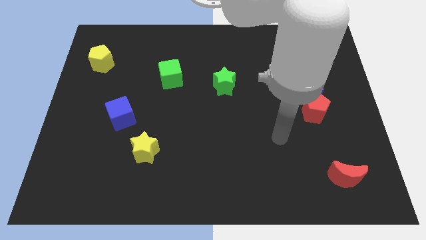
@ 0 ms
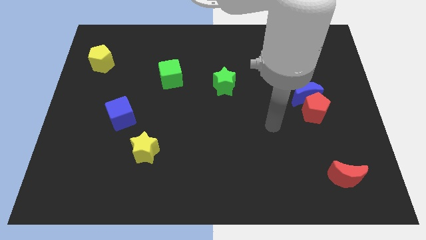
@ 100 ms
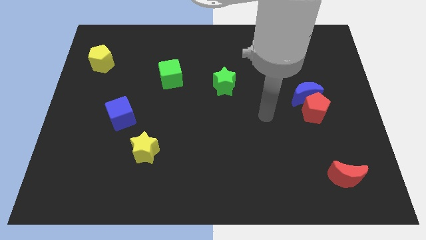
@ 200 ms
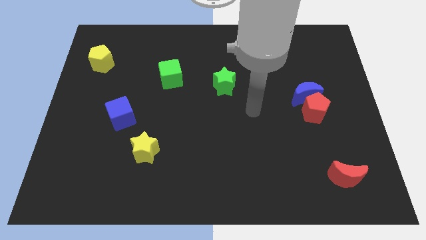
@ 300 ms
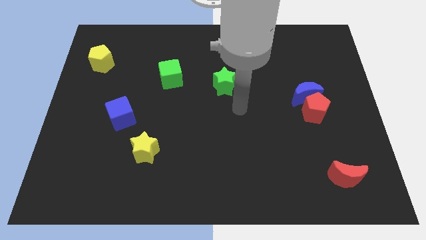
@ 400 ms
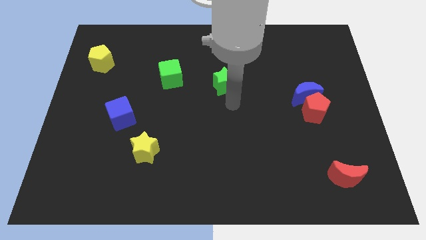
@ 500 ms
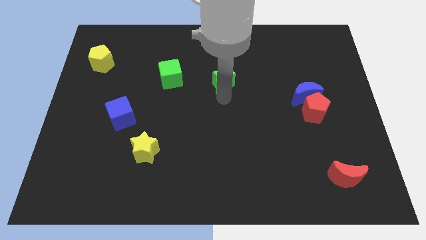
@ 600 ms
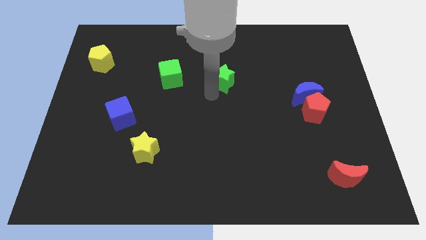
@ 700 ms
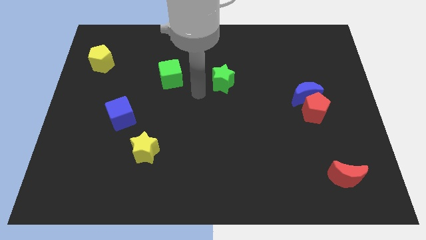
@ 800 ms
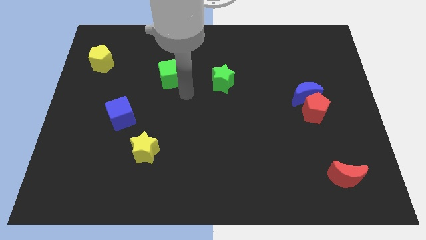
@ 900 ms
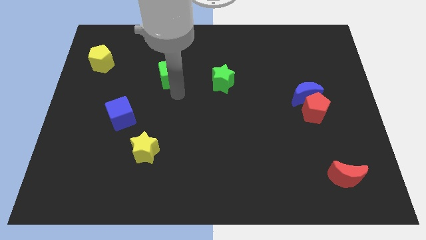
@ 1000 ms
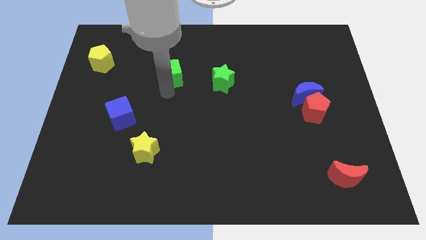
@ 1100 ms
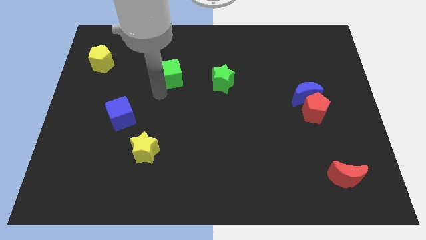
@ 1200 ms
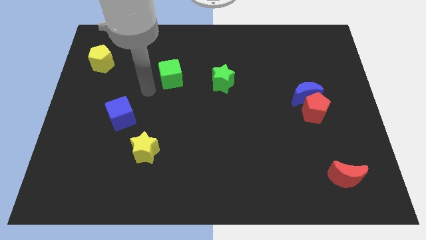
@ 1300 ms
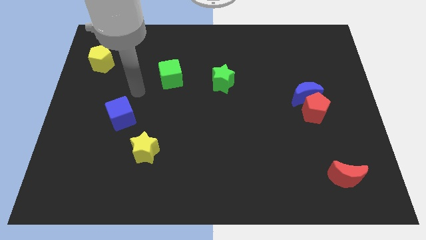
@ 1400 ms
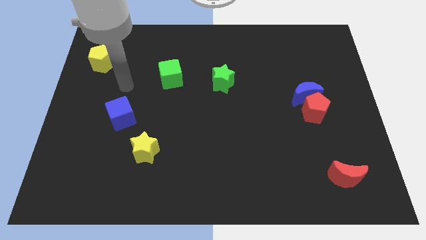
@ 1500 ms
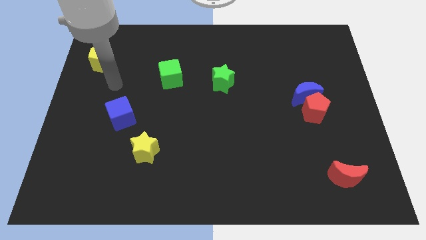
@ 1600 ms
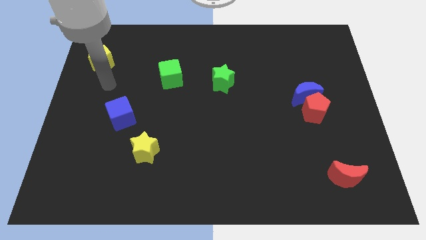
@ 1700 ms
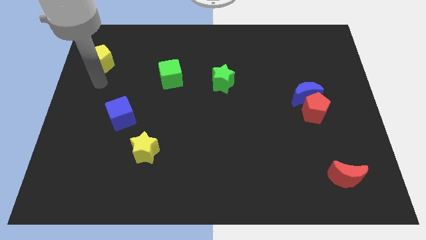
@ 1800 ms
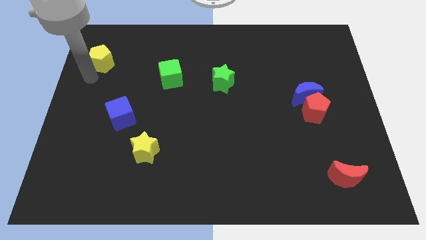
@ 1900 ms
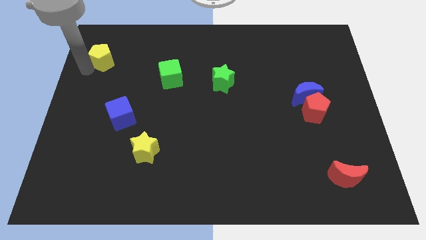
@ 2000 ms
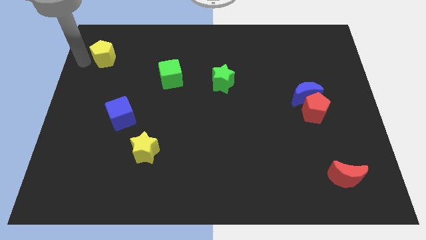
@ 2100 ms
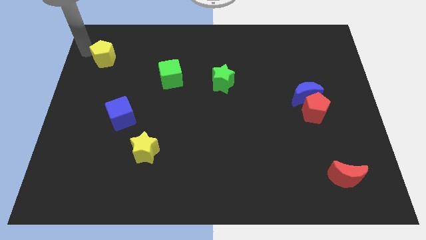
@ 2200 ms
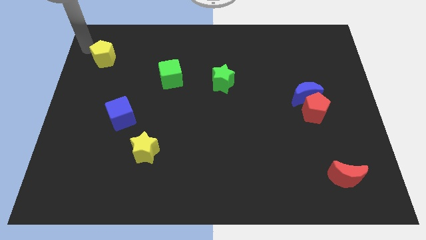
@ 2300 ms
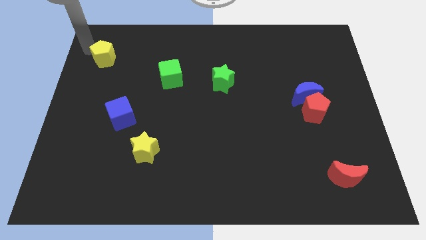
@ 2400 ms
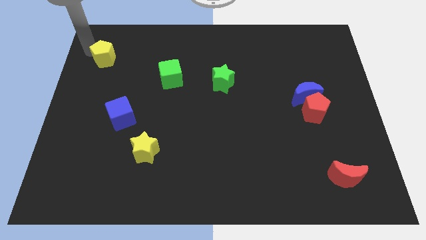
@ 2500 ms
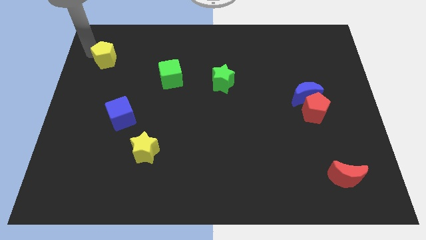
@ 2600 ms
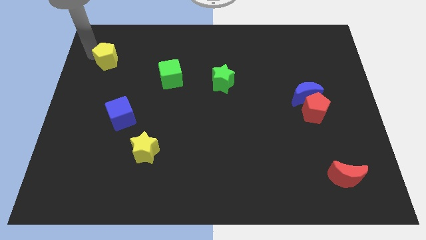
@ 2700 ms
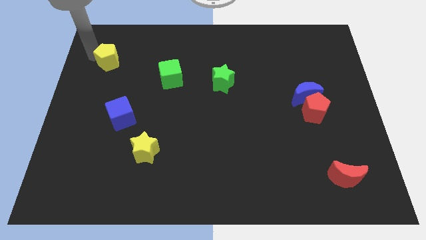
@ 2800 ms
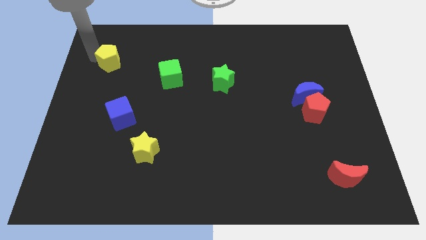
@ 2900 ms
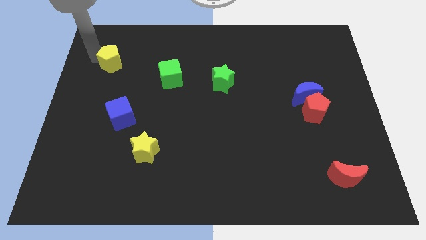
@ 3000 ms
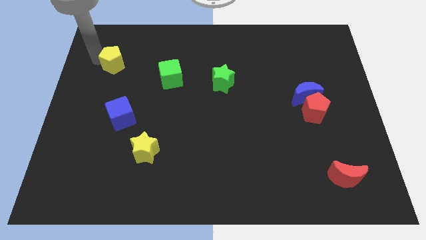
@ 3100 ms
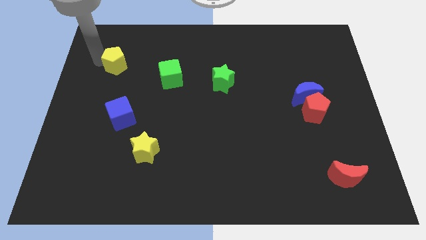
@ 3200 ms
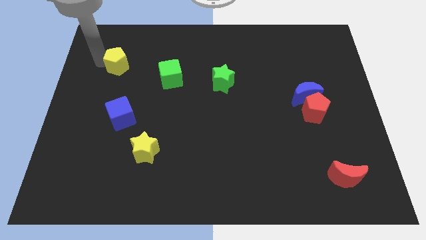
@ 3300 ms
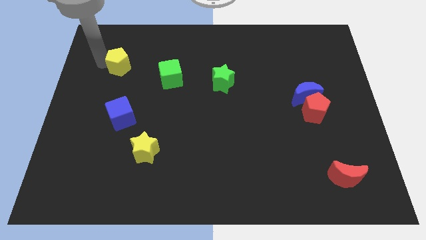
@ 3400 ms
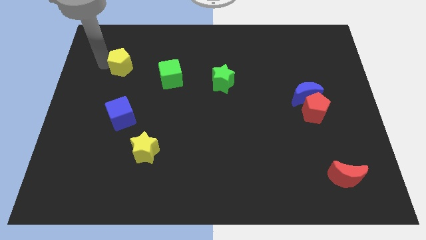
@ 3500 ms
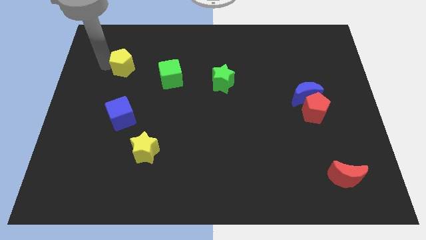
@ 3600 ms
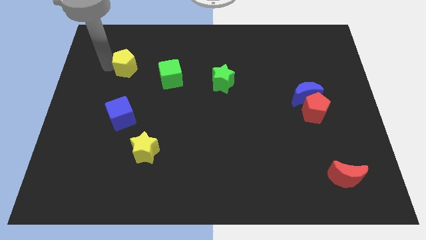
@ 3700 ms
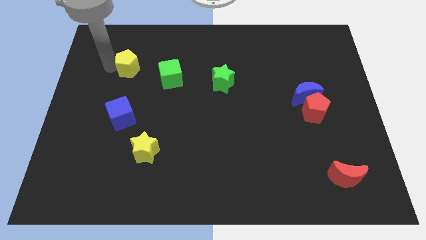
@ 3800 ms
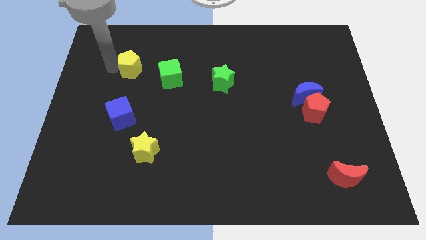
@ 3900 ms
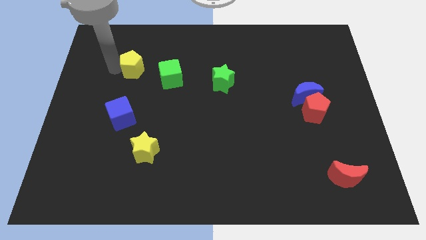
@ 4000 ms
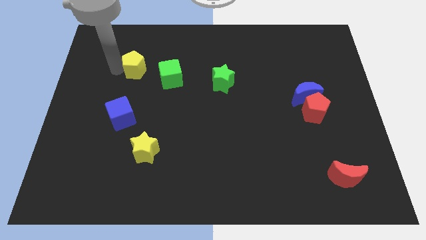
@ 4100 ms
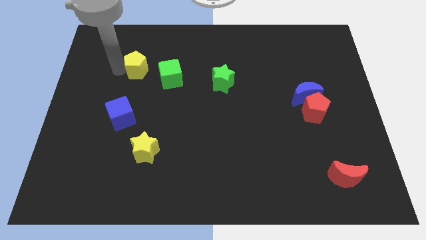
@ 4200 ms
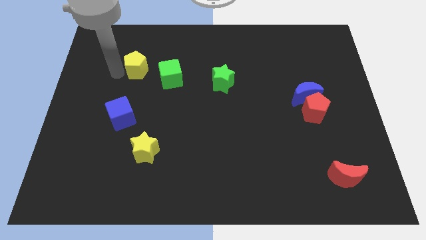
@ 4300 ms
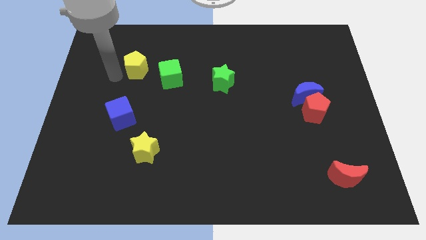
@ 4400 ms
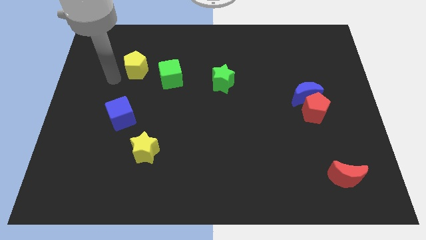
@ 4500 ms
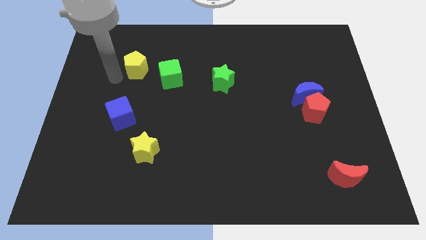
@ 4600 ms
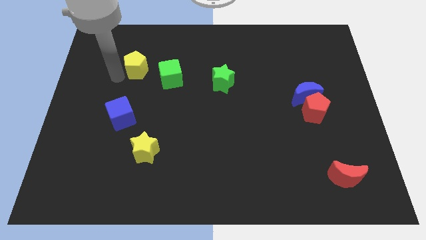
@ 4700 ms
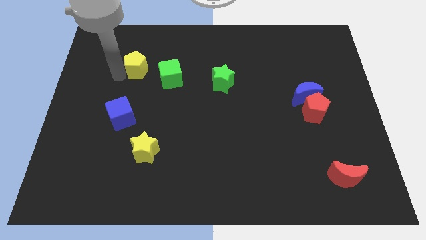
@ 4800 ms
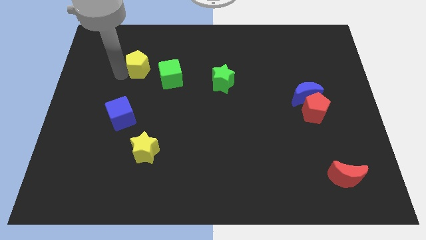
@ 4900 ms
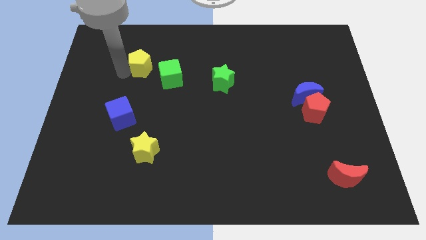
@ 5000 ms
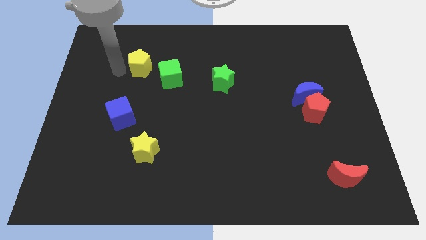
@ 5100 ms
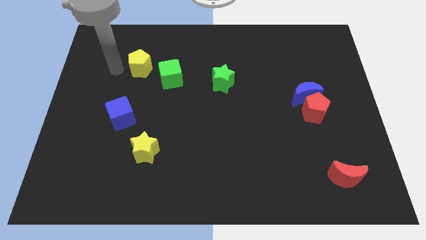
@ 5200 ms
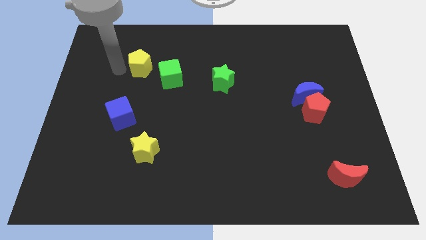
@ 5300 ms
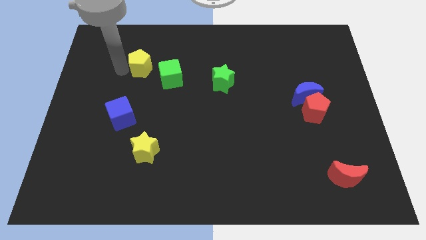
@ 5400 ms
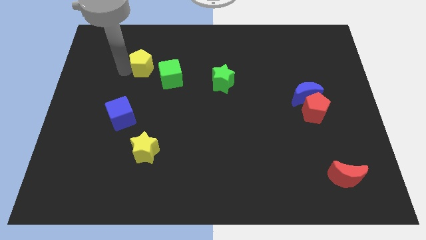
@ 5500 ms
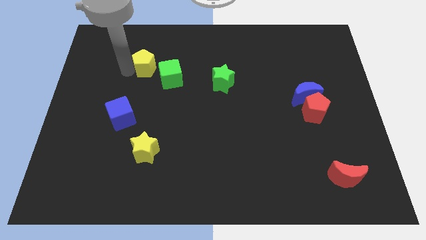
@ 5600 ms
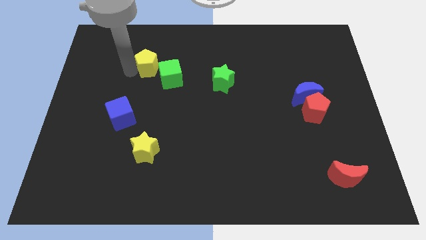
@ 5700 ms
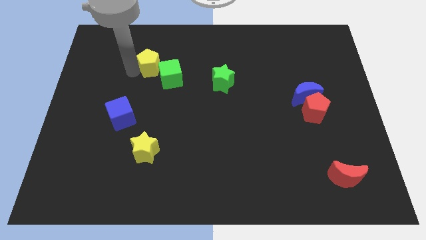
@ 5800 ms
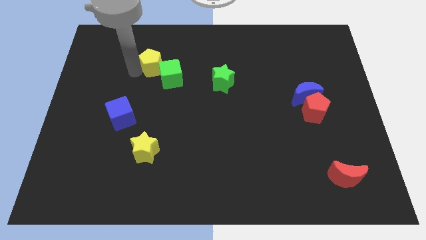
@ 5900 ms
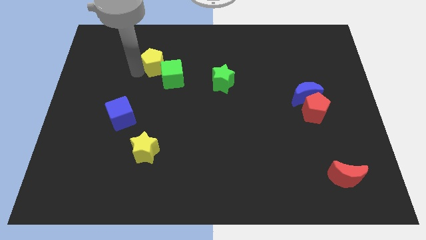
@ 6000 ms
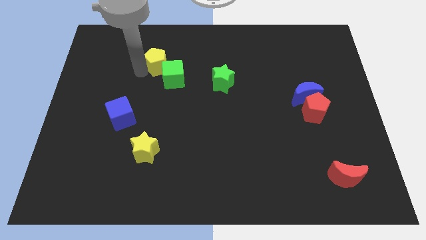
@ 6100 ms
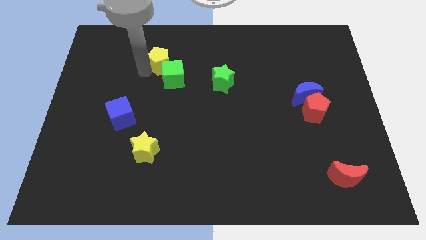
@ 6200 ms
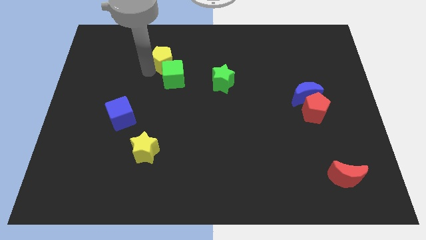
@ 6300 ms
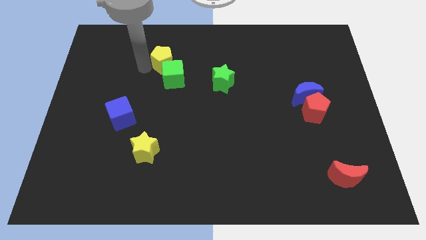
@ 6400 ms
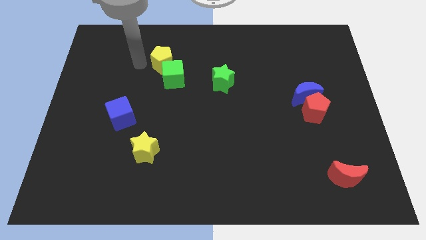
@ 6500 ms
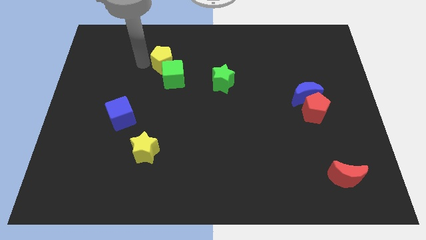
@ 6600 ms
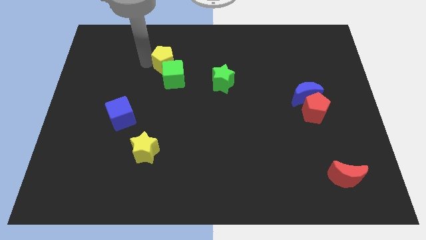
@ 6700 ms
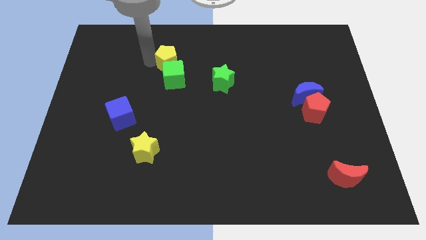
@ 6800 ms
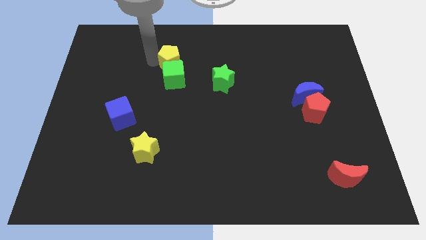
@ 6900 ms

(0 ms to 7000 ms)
put the yellow pentagon to the top right side of the green cube

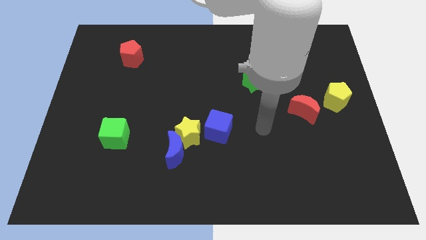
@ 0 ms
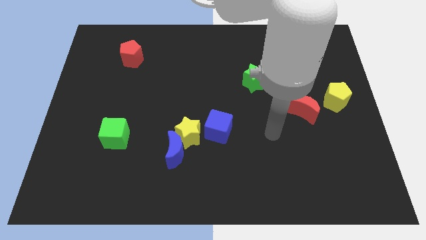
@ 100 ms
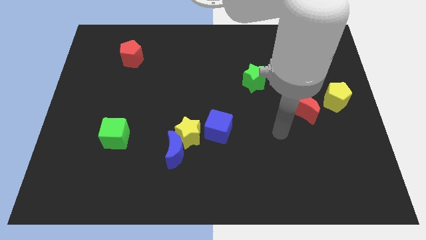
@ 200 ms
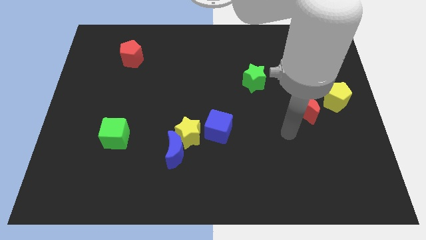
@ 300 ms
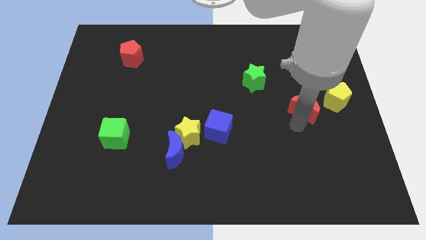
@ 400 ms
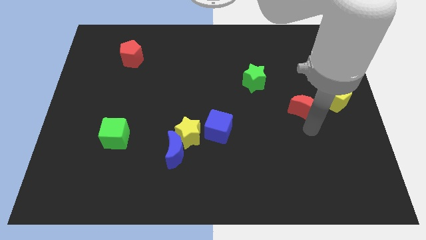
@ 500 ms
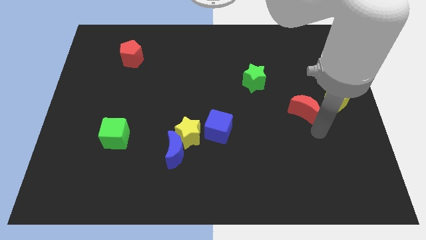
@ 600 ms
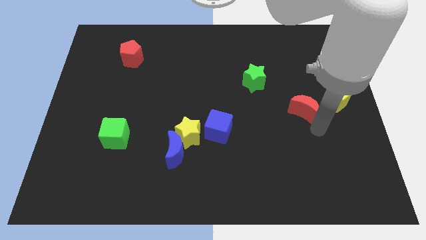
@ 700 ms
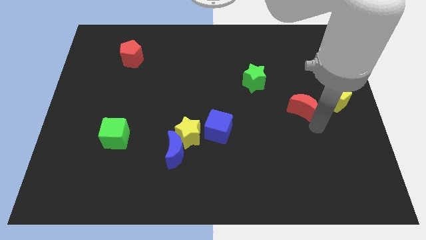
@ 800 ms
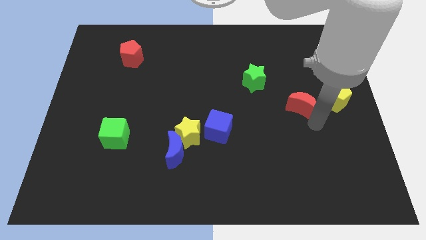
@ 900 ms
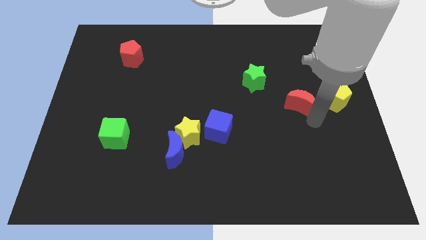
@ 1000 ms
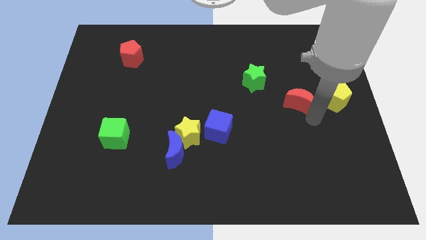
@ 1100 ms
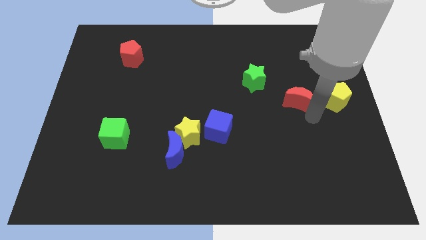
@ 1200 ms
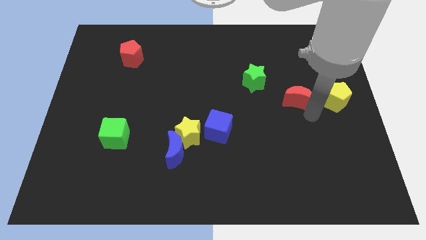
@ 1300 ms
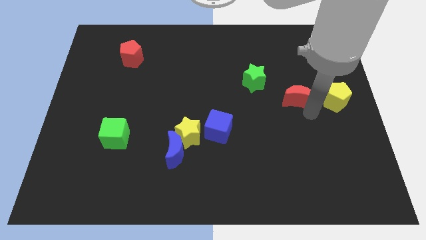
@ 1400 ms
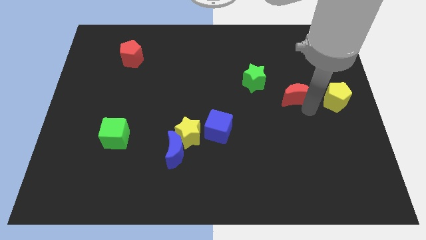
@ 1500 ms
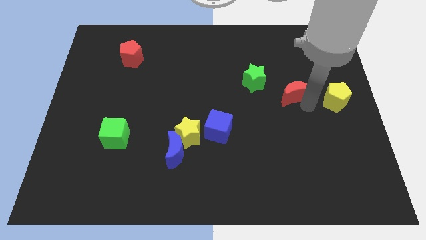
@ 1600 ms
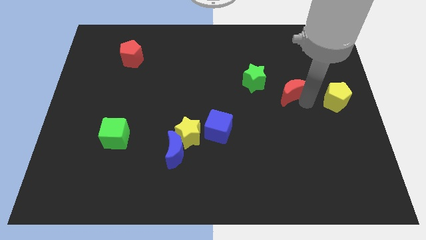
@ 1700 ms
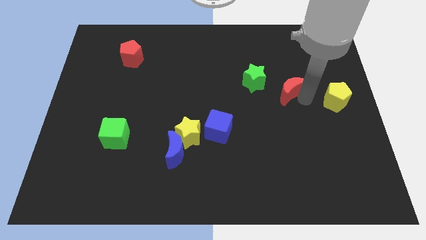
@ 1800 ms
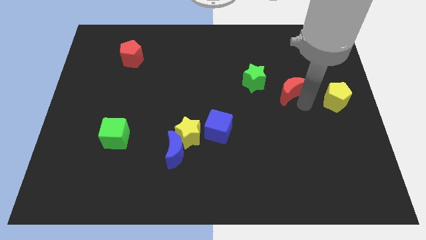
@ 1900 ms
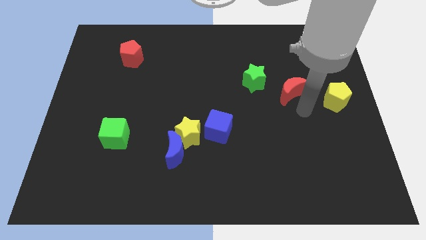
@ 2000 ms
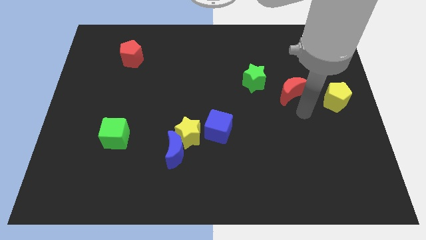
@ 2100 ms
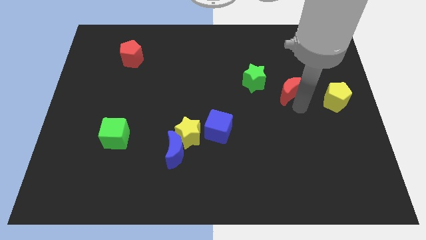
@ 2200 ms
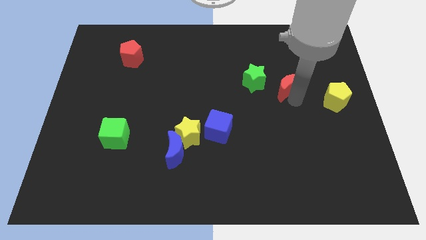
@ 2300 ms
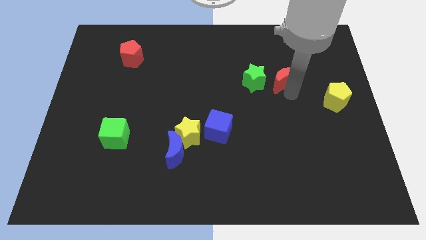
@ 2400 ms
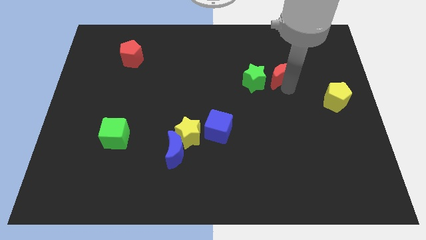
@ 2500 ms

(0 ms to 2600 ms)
slide the red moon diagonally up and to the right of the green star
